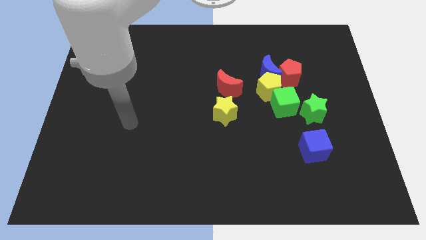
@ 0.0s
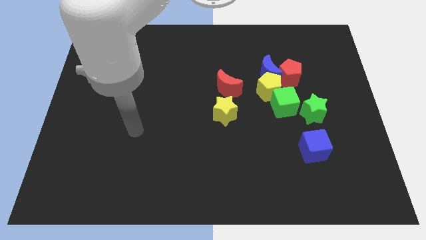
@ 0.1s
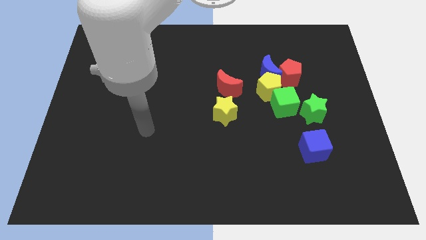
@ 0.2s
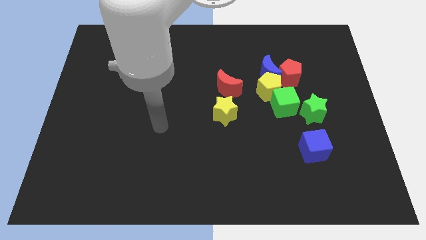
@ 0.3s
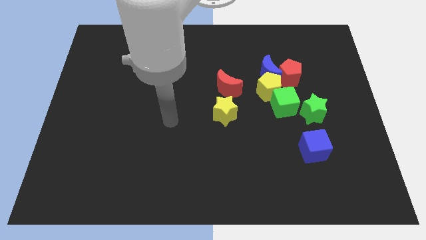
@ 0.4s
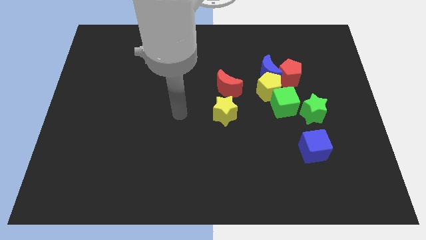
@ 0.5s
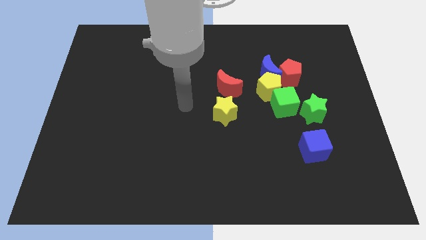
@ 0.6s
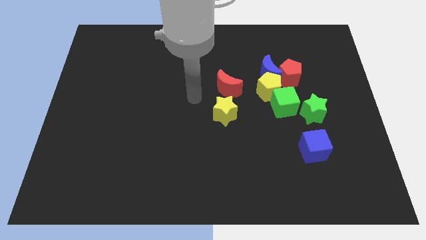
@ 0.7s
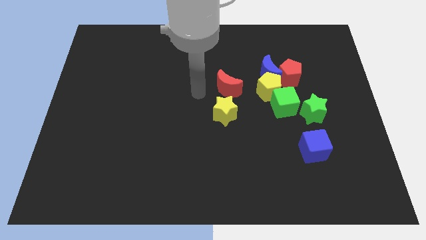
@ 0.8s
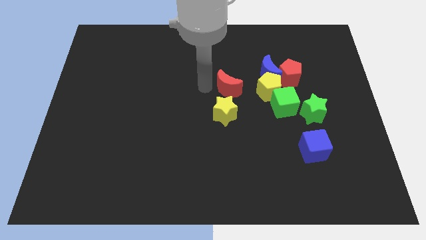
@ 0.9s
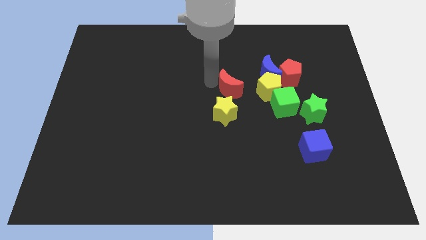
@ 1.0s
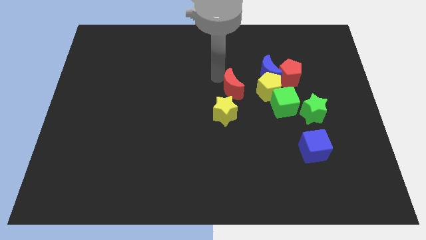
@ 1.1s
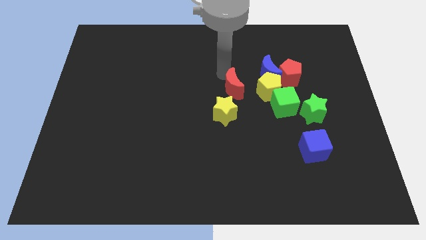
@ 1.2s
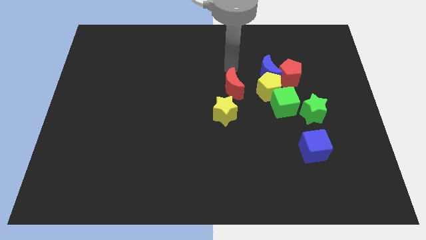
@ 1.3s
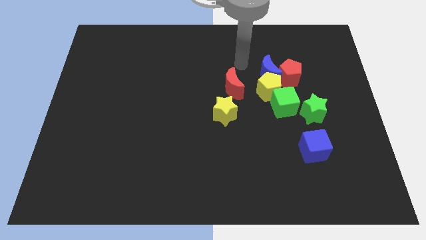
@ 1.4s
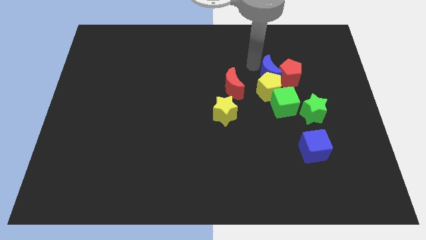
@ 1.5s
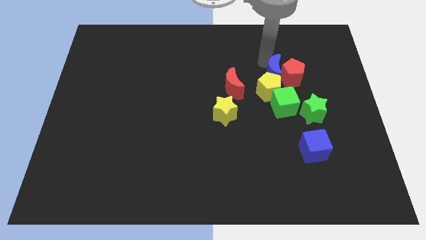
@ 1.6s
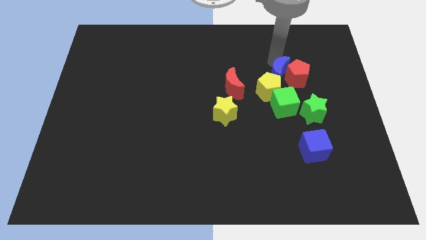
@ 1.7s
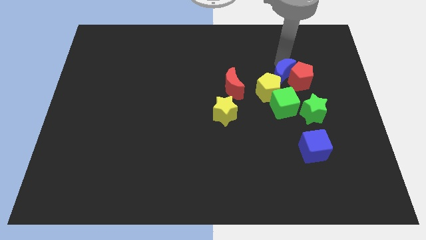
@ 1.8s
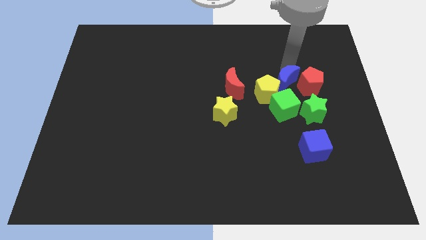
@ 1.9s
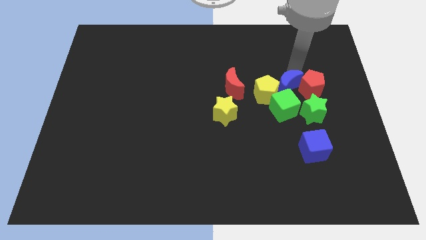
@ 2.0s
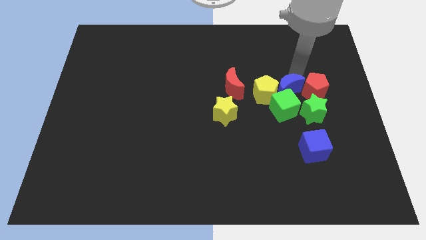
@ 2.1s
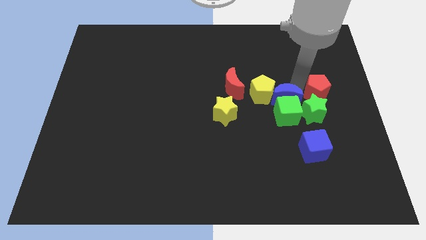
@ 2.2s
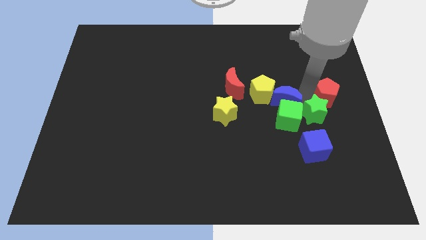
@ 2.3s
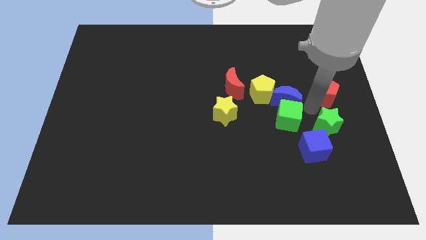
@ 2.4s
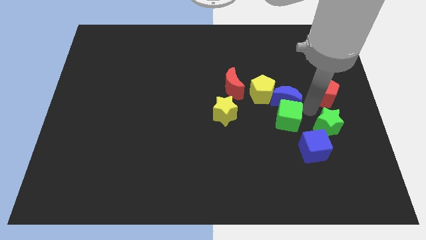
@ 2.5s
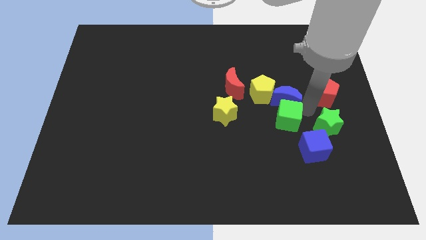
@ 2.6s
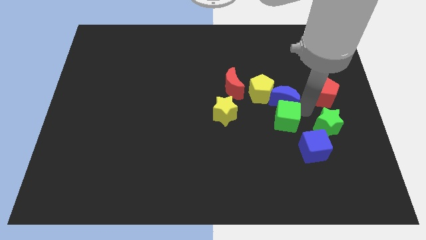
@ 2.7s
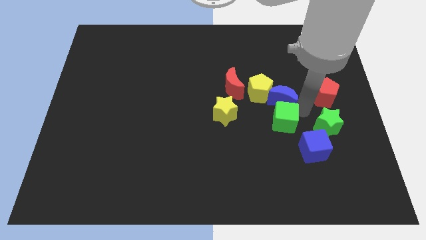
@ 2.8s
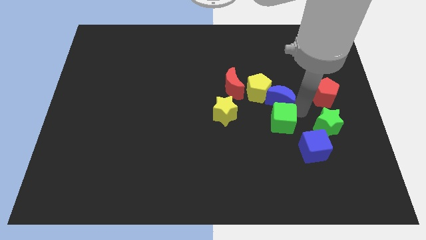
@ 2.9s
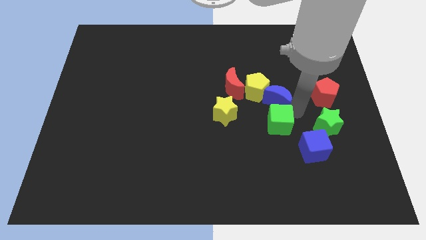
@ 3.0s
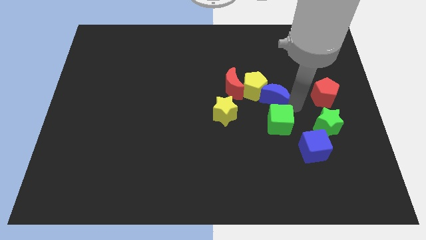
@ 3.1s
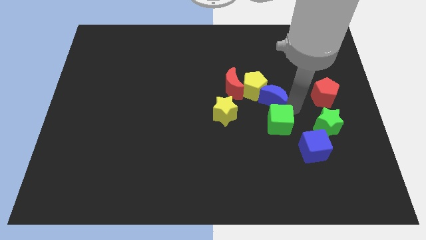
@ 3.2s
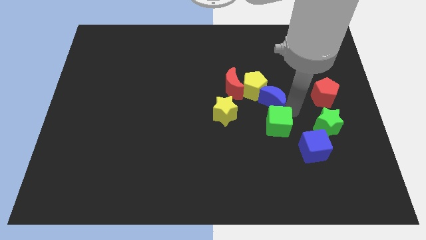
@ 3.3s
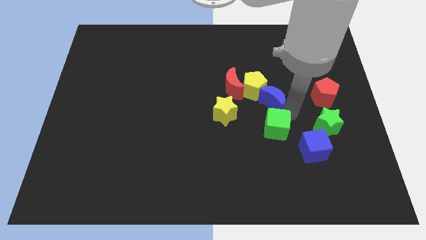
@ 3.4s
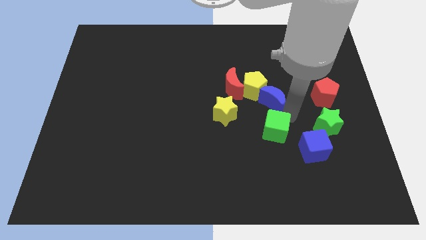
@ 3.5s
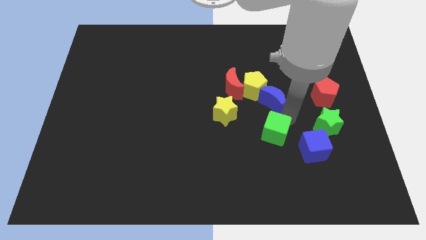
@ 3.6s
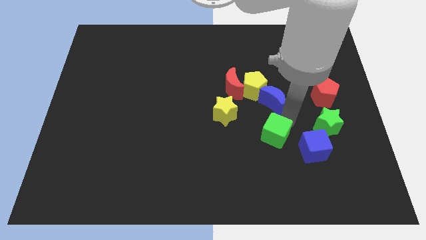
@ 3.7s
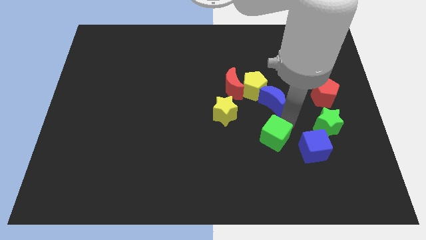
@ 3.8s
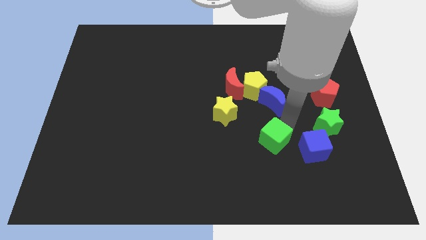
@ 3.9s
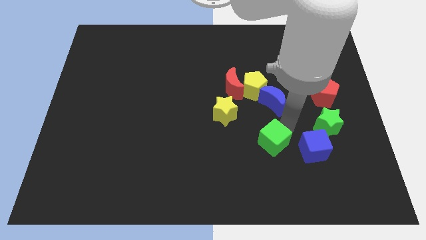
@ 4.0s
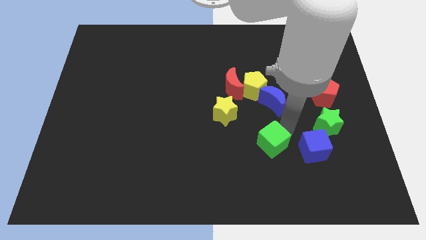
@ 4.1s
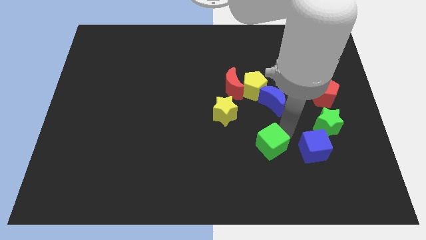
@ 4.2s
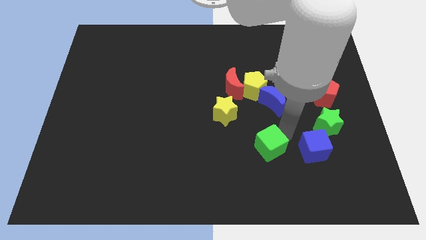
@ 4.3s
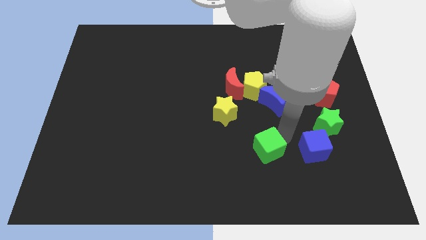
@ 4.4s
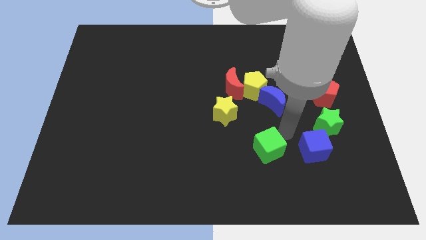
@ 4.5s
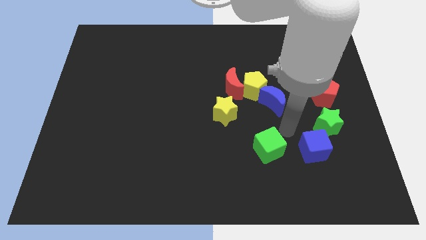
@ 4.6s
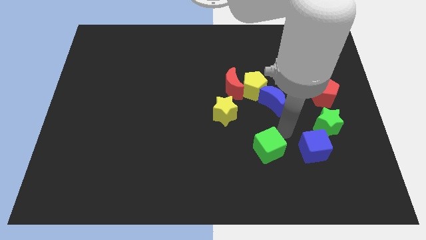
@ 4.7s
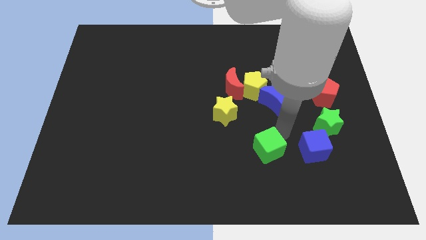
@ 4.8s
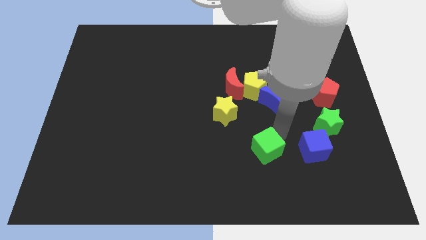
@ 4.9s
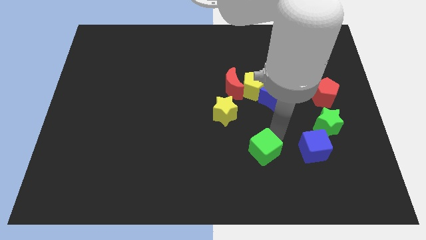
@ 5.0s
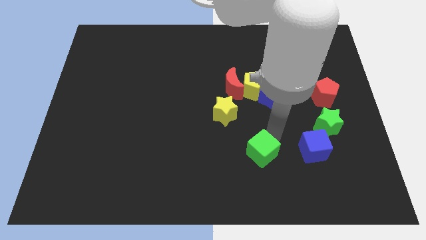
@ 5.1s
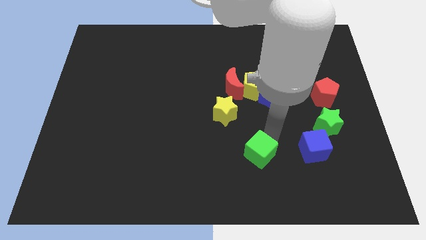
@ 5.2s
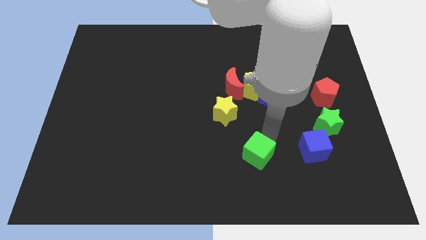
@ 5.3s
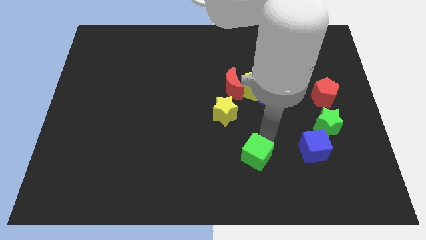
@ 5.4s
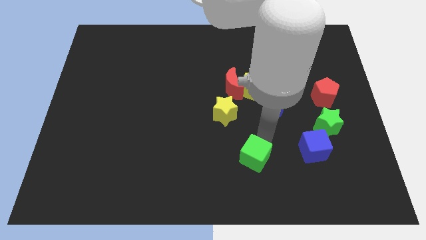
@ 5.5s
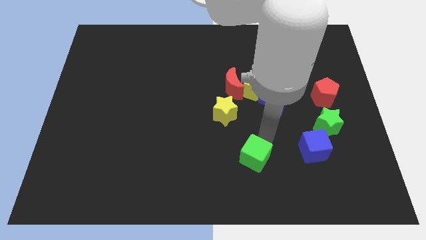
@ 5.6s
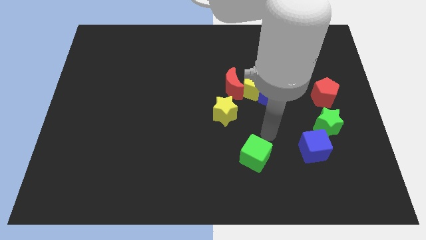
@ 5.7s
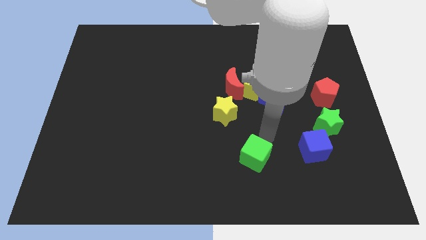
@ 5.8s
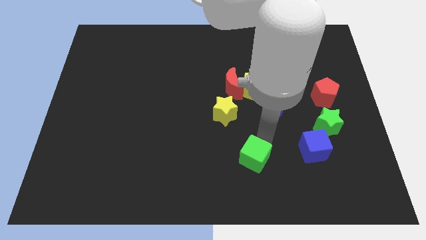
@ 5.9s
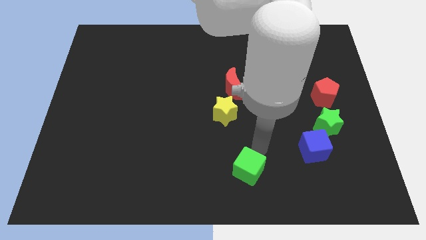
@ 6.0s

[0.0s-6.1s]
move the green cube to the bottom

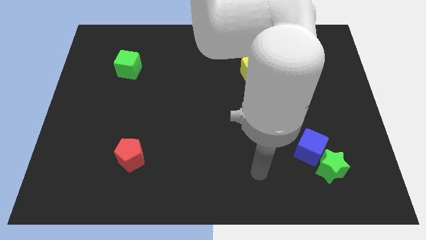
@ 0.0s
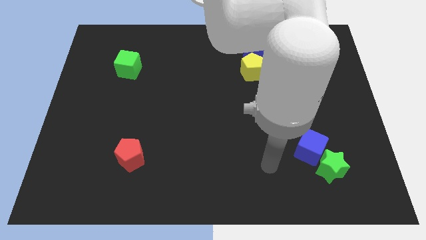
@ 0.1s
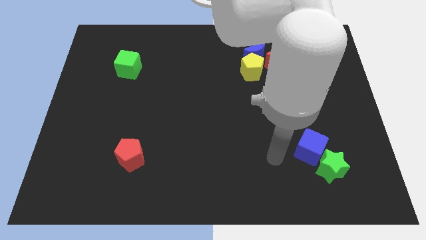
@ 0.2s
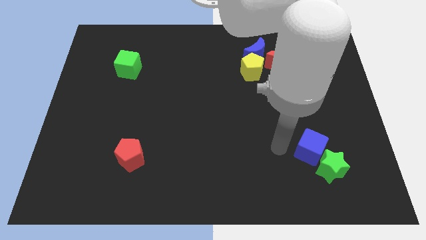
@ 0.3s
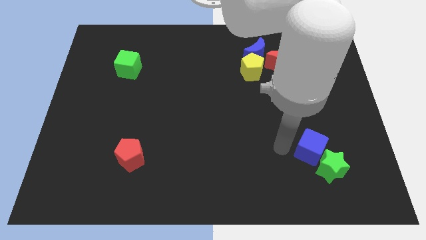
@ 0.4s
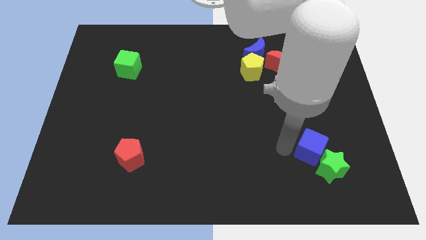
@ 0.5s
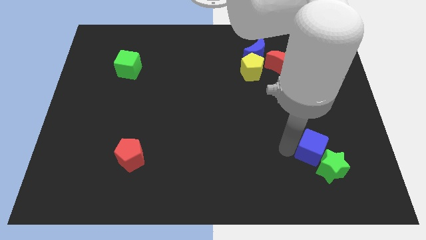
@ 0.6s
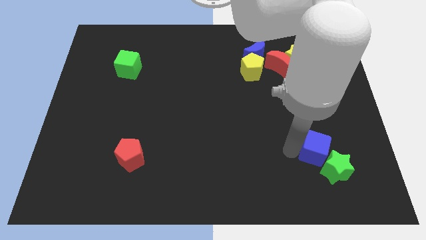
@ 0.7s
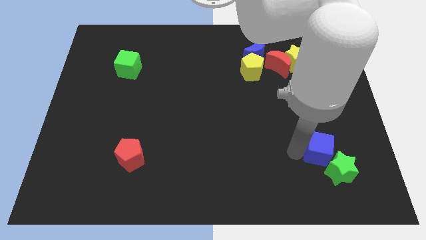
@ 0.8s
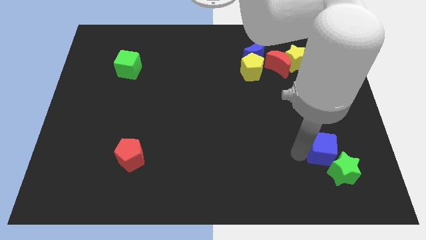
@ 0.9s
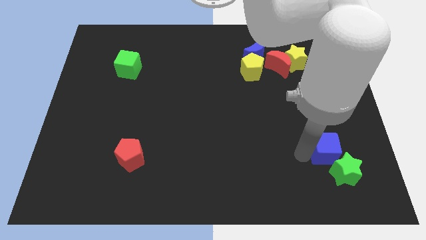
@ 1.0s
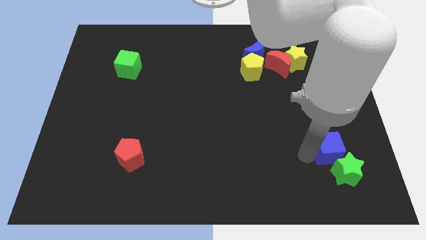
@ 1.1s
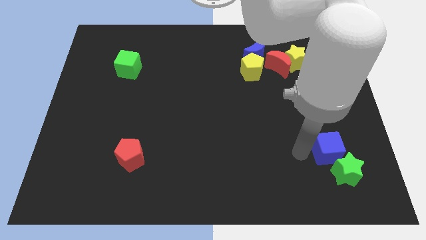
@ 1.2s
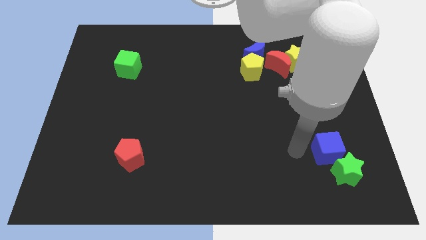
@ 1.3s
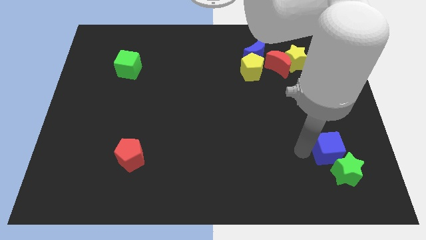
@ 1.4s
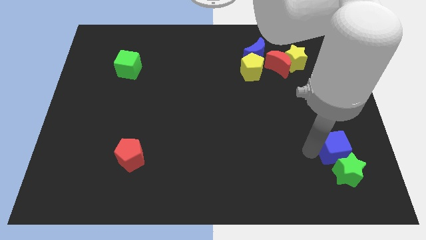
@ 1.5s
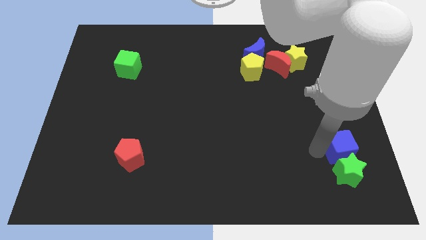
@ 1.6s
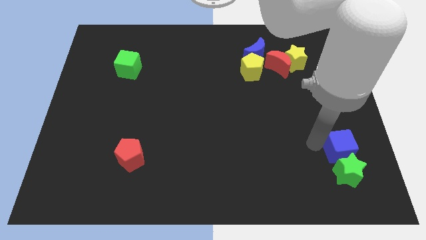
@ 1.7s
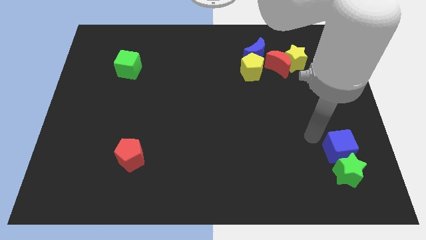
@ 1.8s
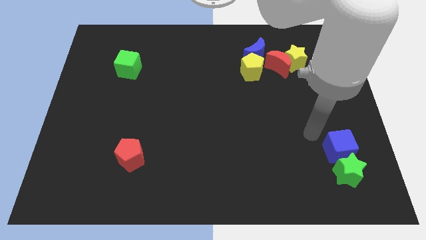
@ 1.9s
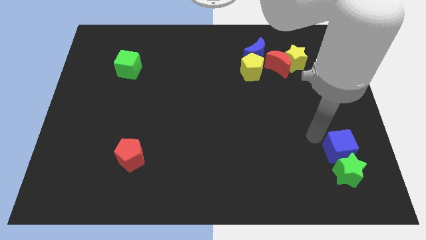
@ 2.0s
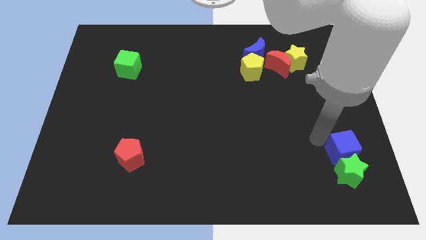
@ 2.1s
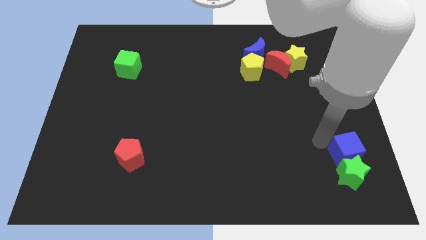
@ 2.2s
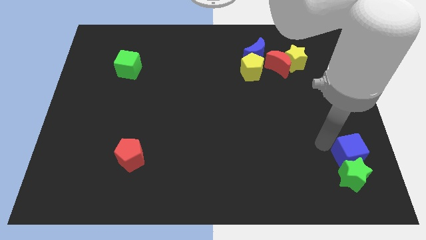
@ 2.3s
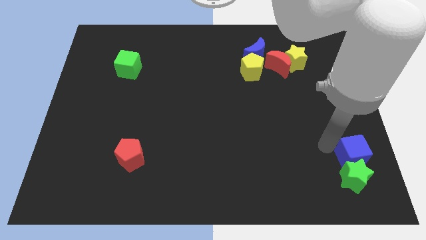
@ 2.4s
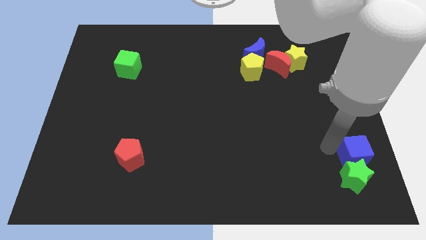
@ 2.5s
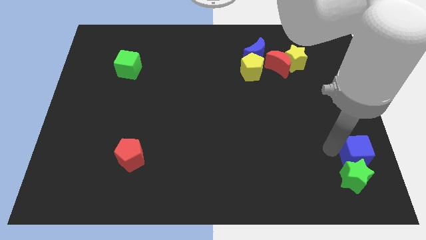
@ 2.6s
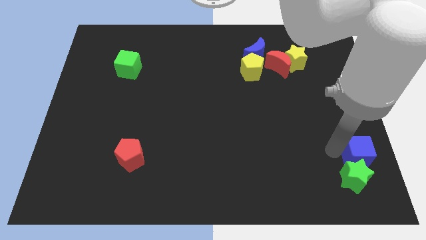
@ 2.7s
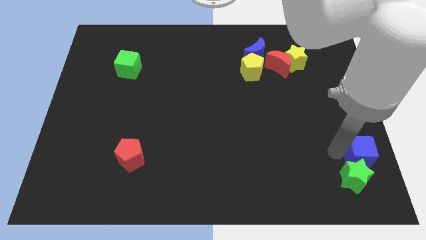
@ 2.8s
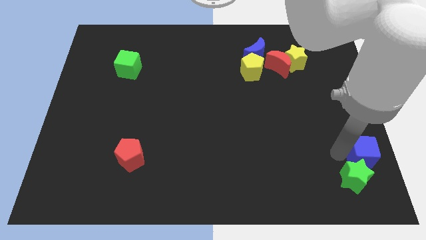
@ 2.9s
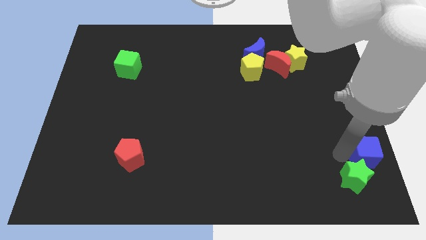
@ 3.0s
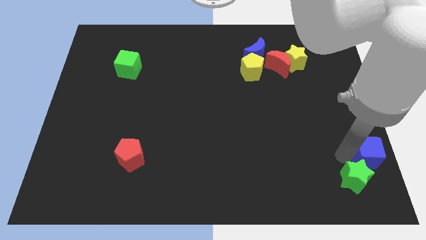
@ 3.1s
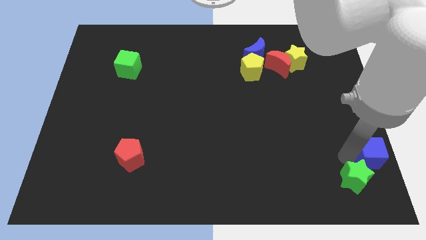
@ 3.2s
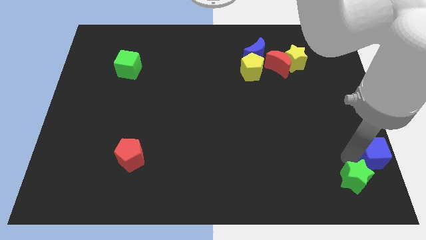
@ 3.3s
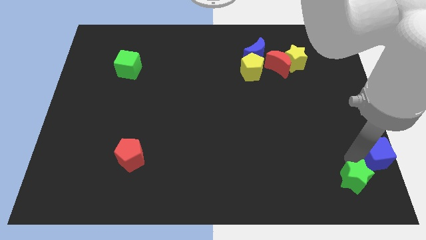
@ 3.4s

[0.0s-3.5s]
move the blue cube to the bottom right
